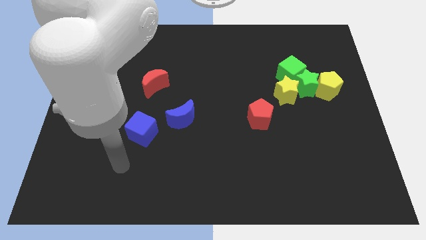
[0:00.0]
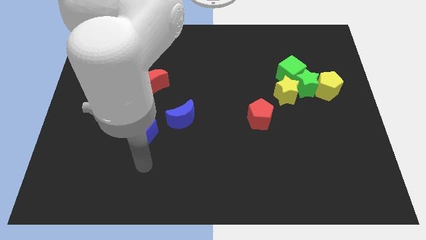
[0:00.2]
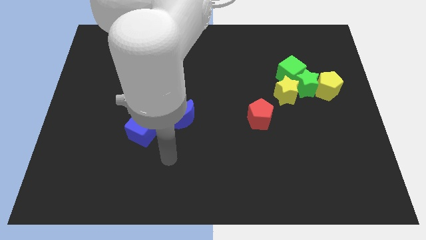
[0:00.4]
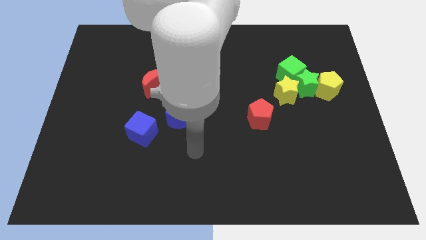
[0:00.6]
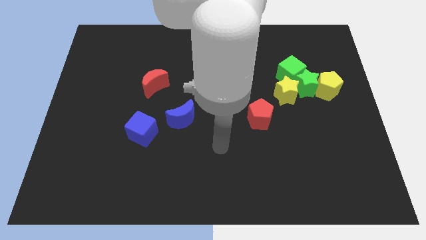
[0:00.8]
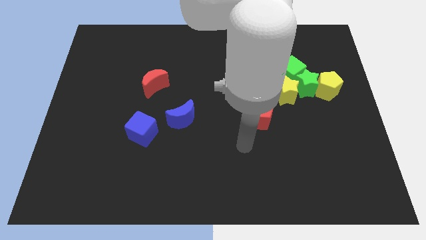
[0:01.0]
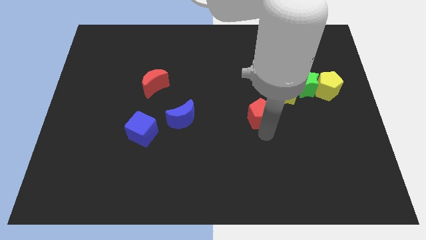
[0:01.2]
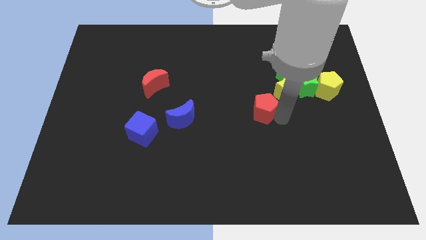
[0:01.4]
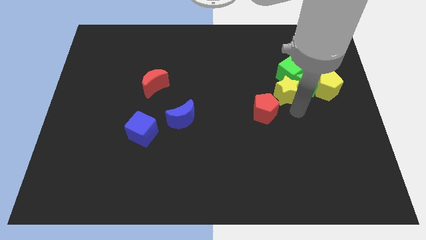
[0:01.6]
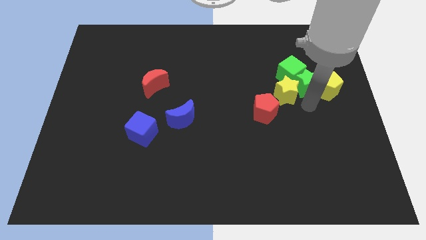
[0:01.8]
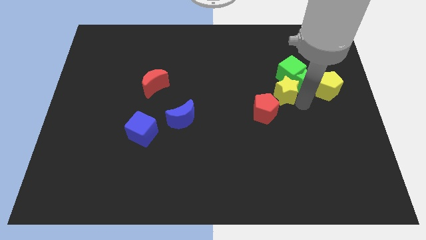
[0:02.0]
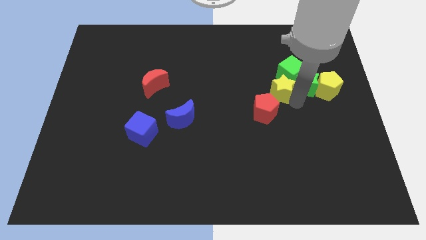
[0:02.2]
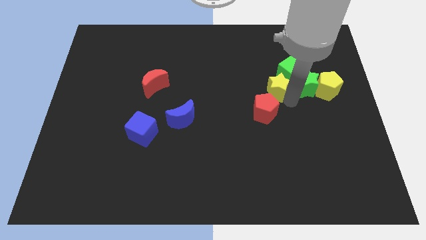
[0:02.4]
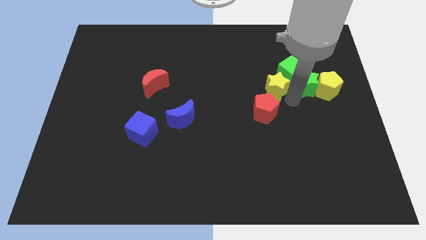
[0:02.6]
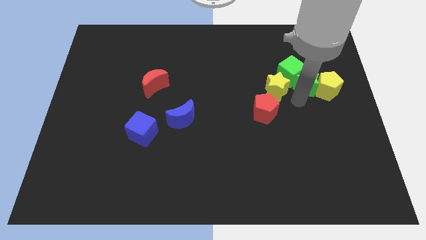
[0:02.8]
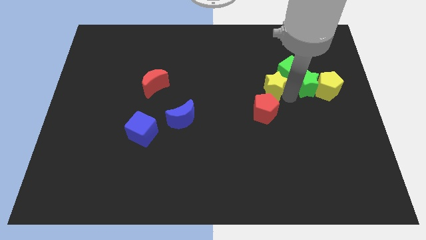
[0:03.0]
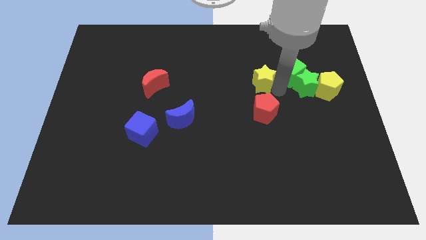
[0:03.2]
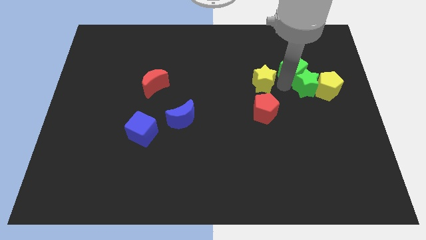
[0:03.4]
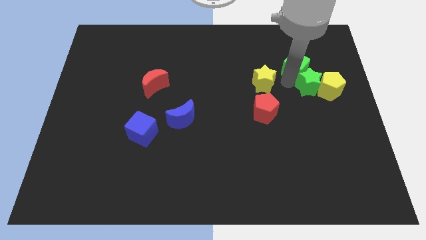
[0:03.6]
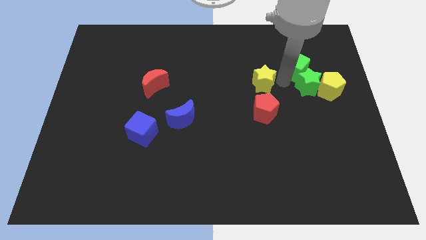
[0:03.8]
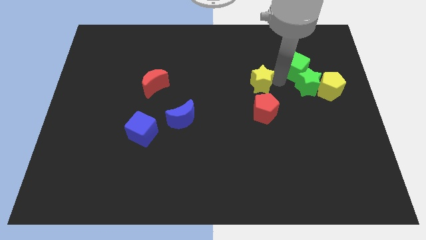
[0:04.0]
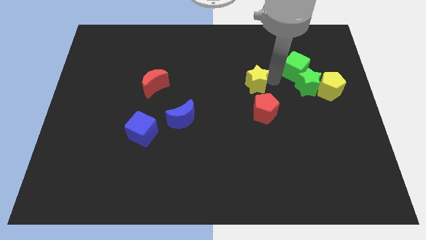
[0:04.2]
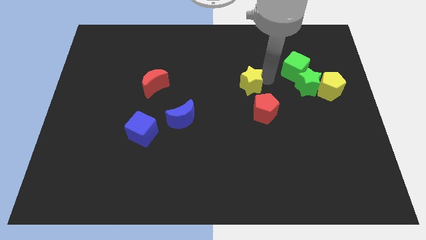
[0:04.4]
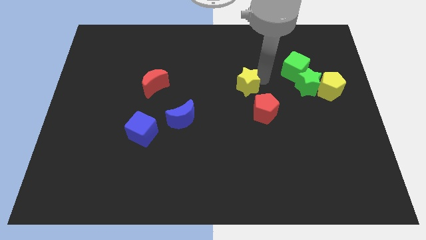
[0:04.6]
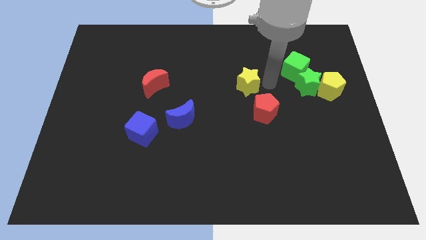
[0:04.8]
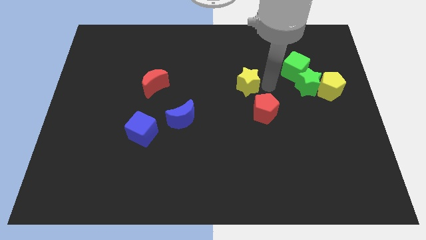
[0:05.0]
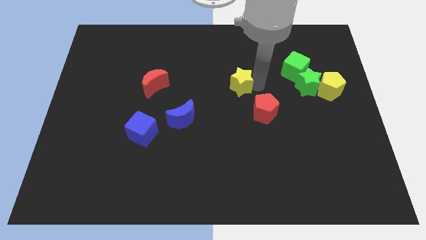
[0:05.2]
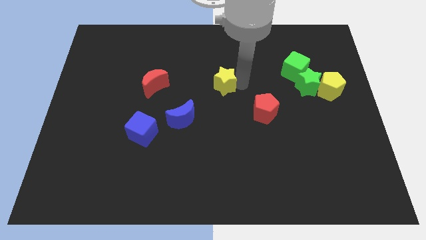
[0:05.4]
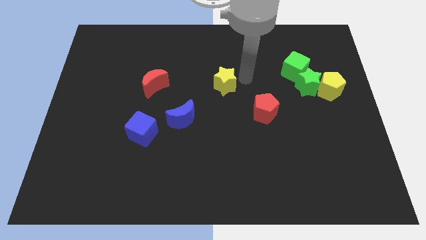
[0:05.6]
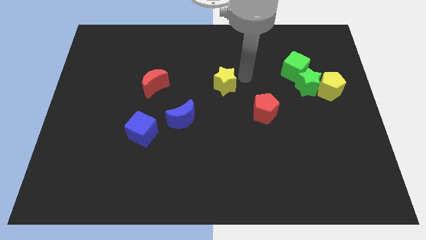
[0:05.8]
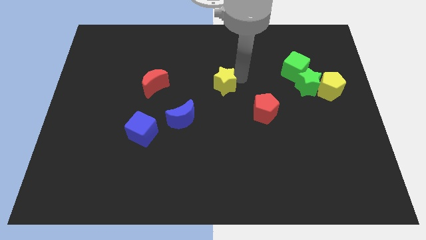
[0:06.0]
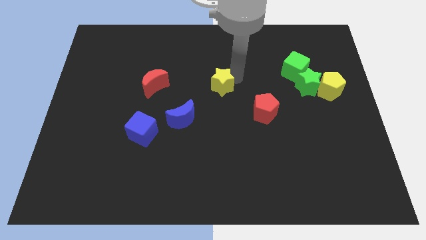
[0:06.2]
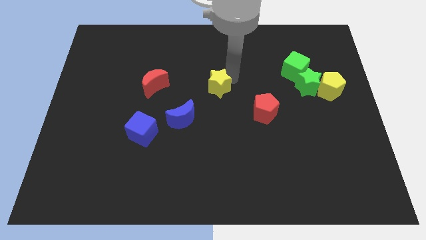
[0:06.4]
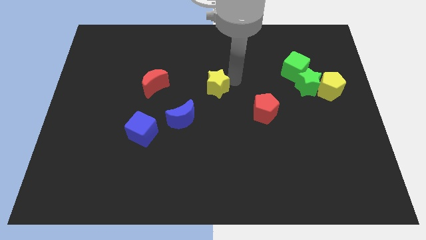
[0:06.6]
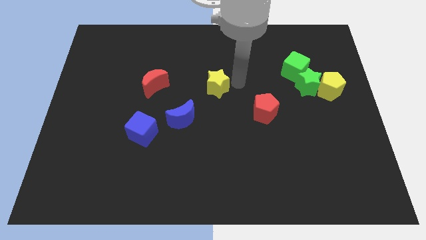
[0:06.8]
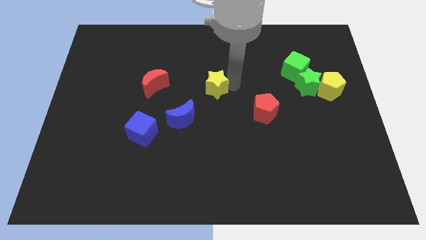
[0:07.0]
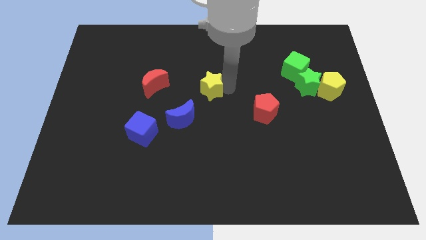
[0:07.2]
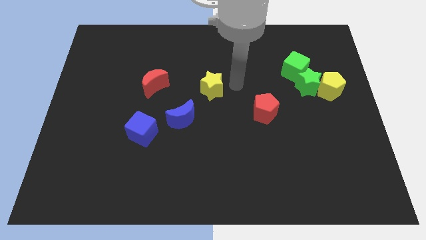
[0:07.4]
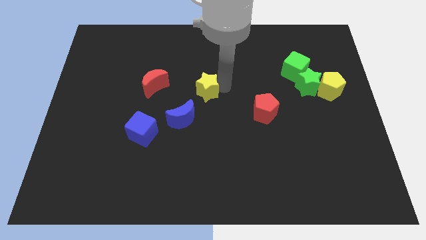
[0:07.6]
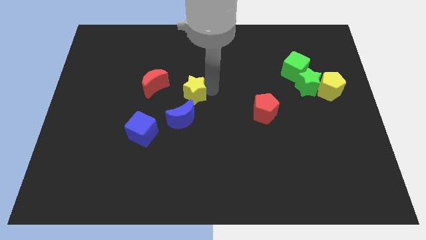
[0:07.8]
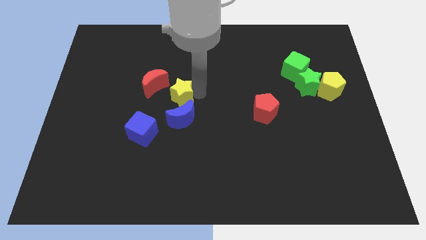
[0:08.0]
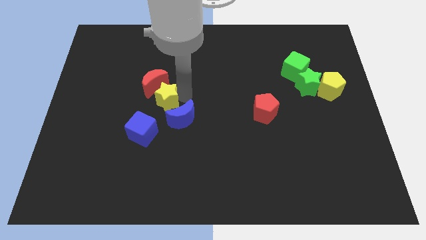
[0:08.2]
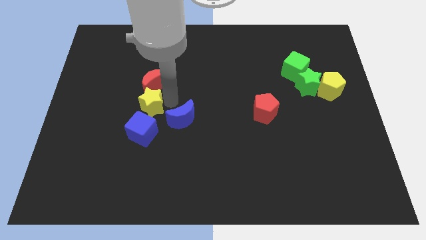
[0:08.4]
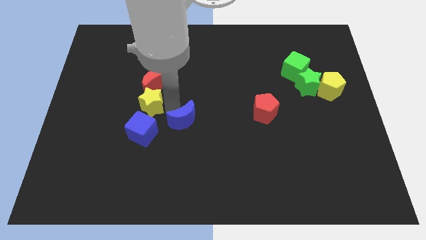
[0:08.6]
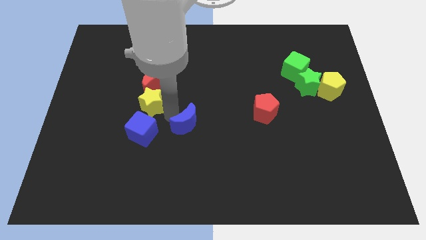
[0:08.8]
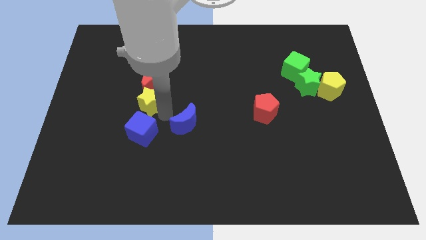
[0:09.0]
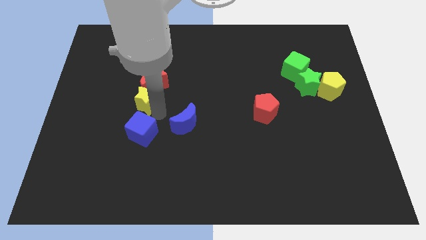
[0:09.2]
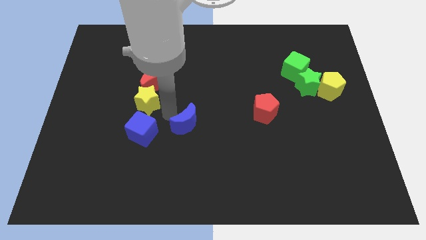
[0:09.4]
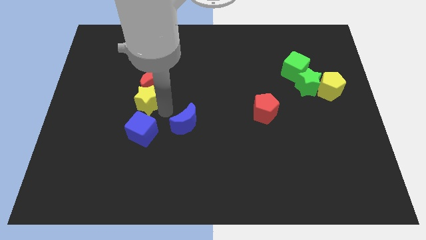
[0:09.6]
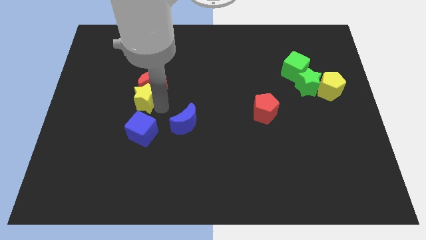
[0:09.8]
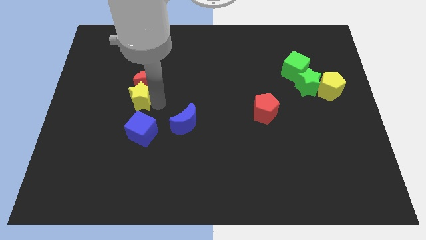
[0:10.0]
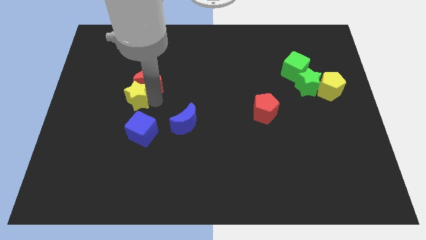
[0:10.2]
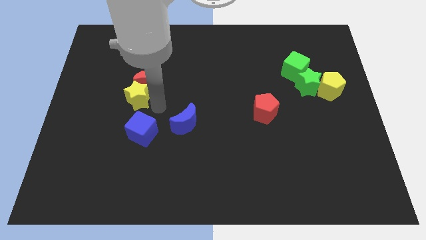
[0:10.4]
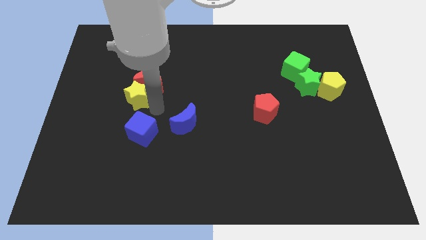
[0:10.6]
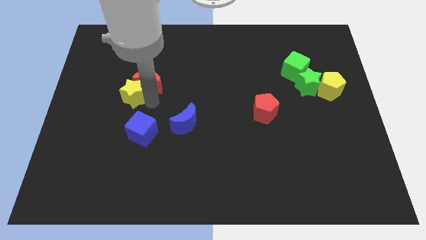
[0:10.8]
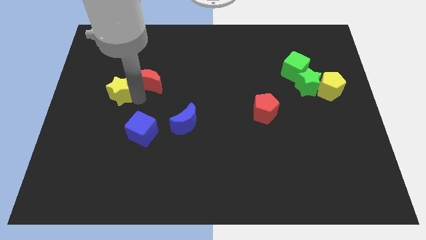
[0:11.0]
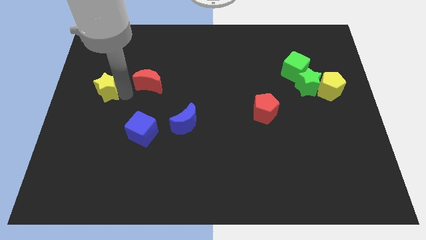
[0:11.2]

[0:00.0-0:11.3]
put the yellow star to the left side of the board

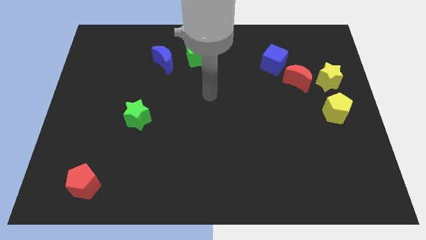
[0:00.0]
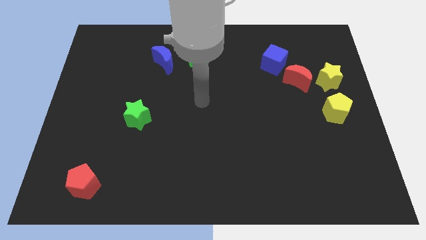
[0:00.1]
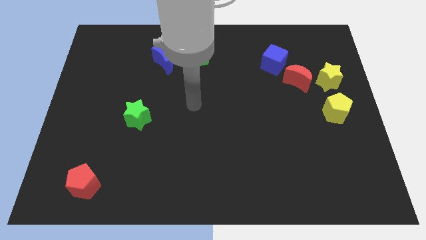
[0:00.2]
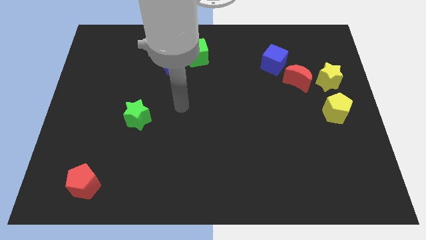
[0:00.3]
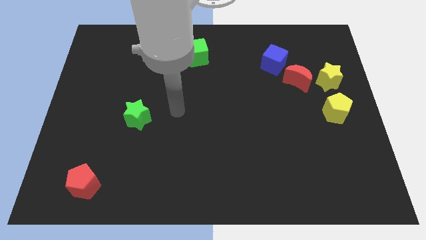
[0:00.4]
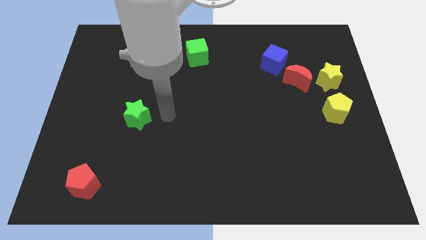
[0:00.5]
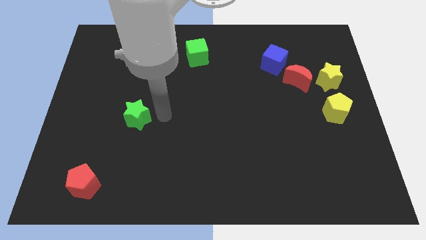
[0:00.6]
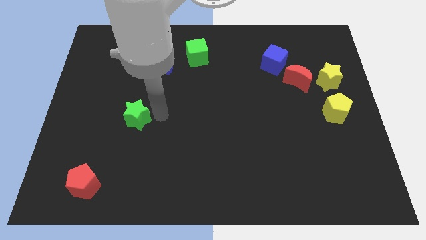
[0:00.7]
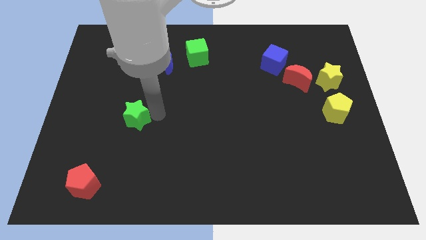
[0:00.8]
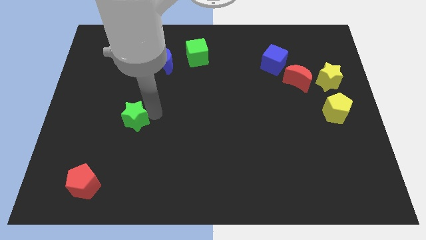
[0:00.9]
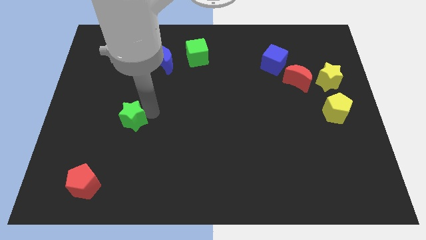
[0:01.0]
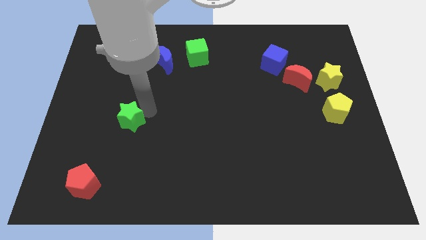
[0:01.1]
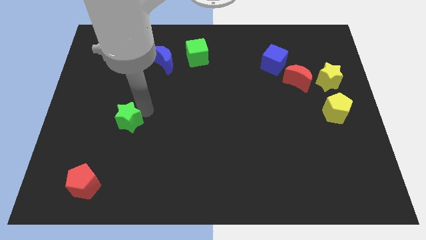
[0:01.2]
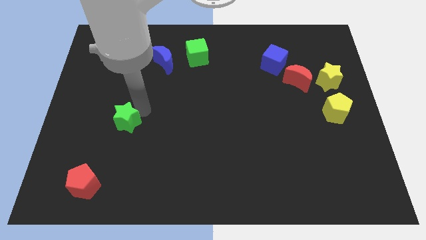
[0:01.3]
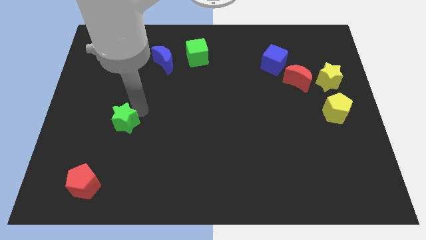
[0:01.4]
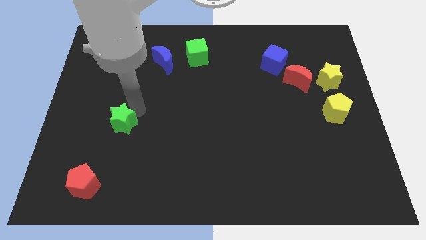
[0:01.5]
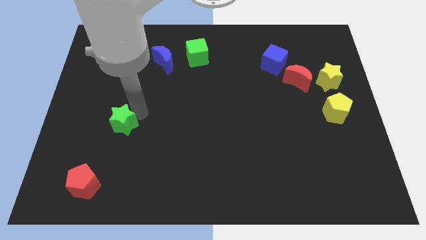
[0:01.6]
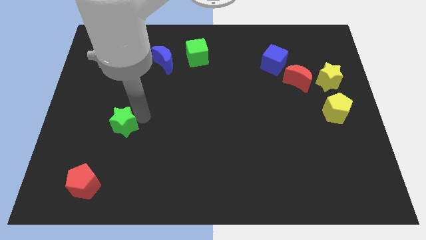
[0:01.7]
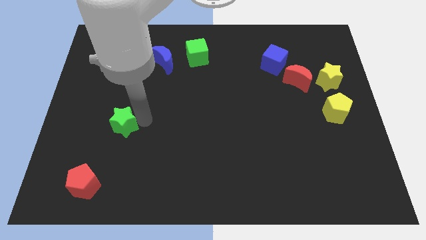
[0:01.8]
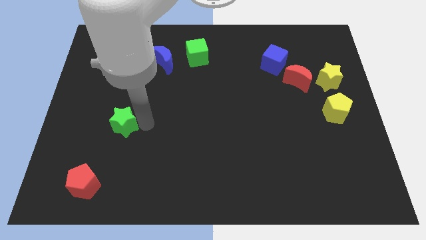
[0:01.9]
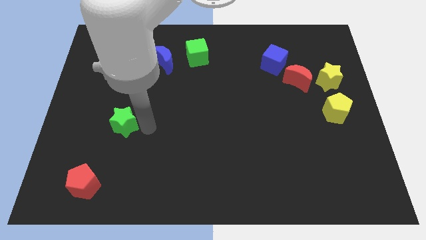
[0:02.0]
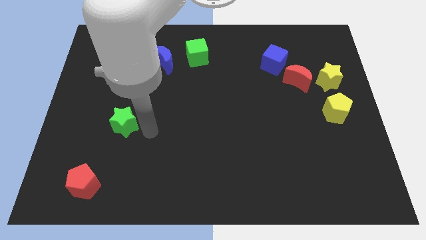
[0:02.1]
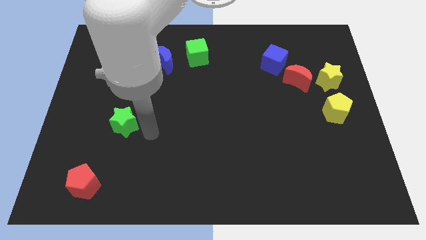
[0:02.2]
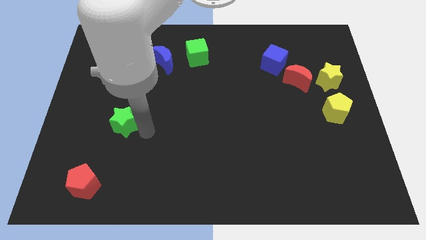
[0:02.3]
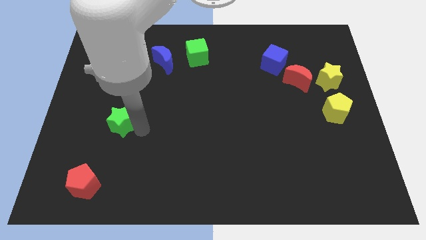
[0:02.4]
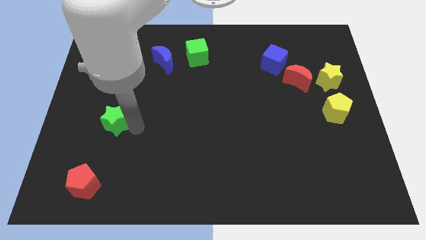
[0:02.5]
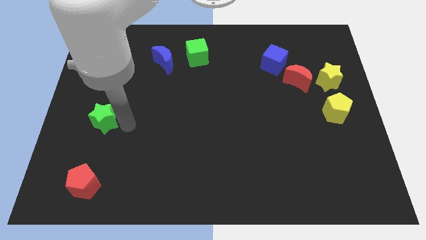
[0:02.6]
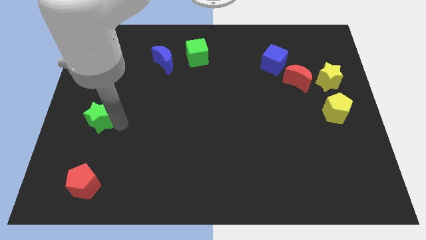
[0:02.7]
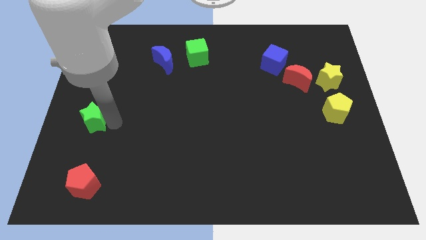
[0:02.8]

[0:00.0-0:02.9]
push the green star to the center left
